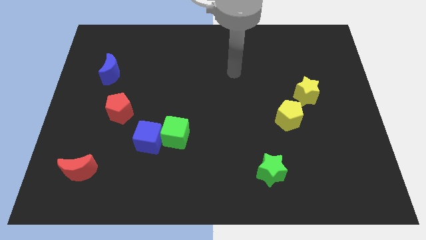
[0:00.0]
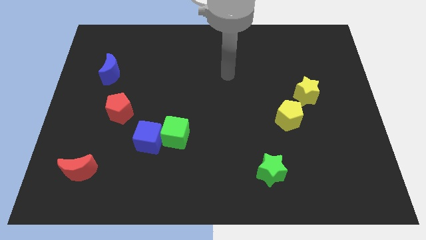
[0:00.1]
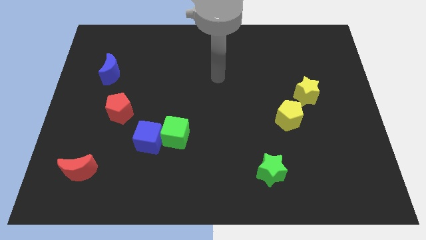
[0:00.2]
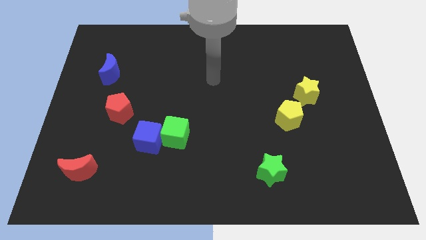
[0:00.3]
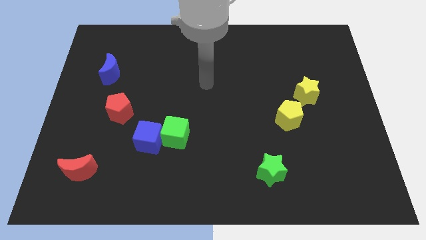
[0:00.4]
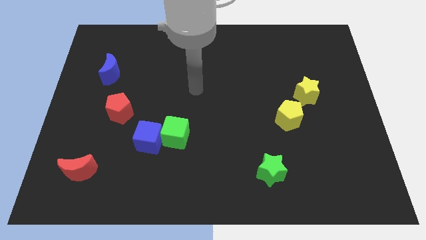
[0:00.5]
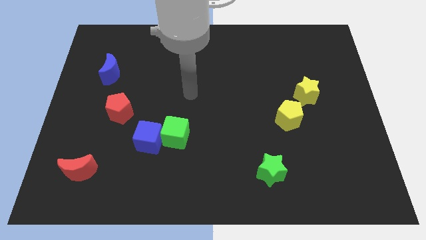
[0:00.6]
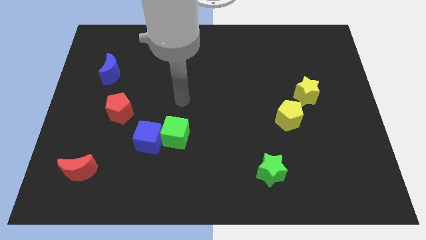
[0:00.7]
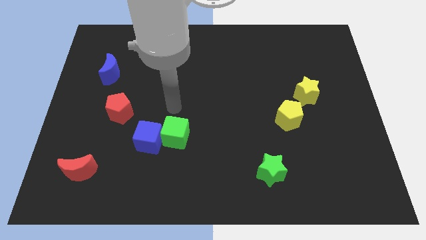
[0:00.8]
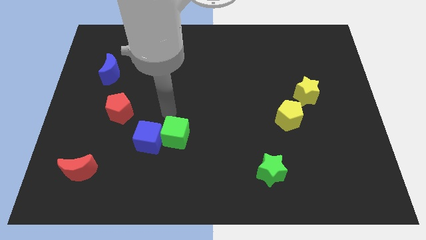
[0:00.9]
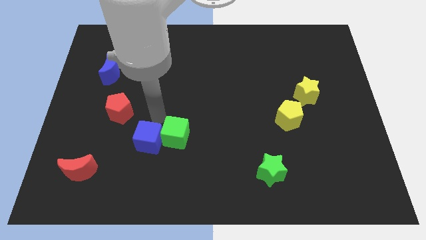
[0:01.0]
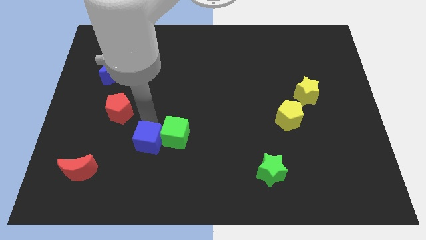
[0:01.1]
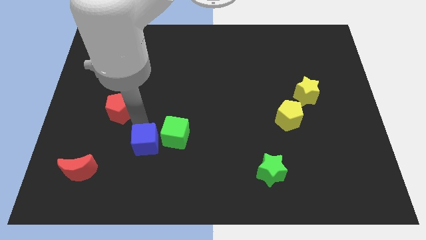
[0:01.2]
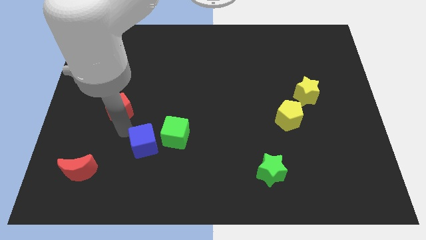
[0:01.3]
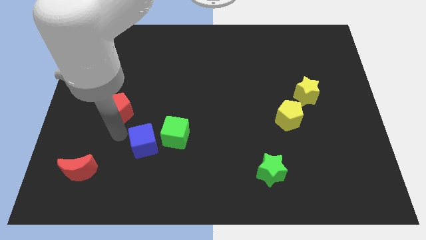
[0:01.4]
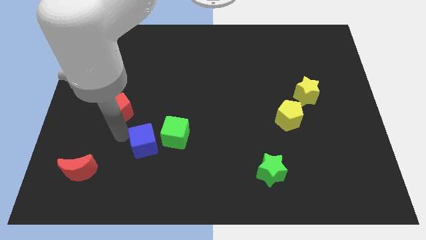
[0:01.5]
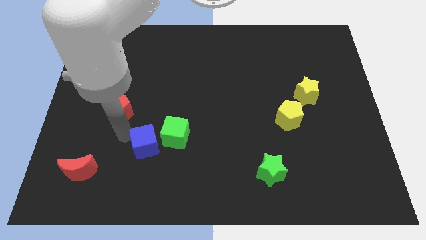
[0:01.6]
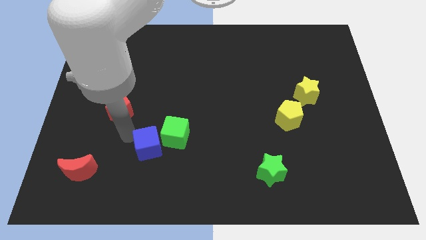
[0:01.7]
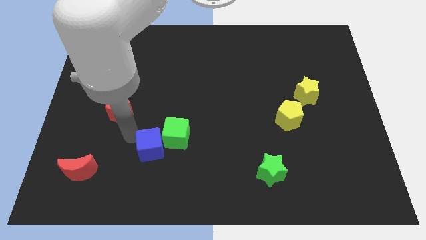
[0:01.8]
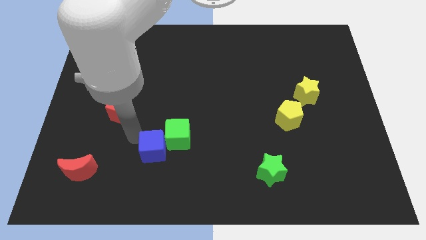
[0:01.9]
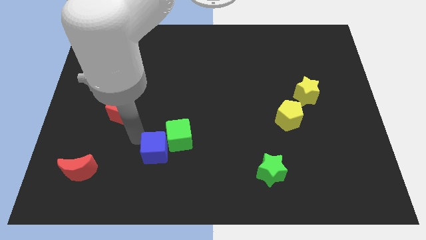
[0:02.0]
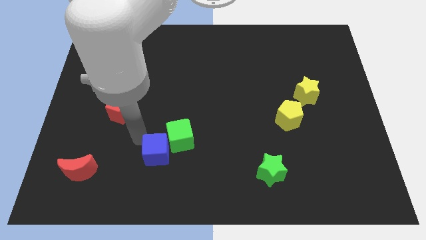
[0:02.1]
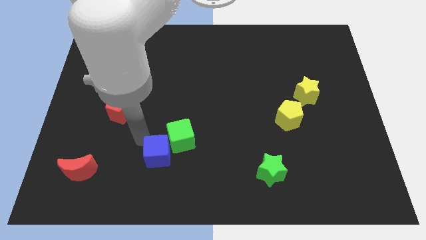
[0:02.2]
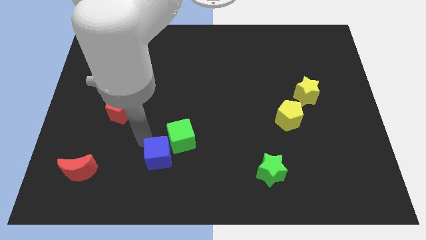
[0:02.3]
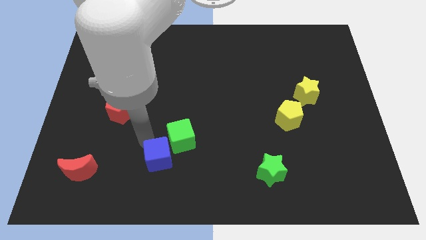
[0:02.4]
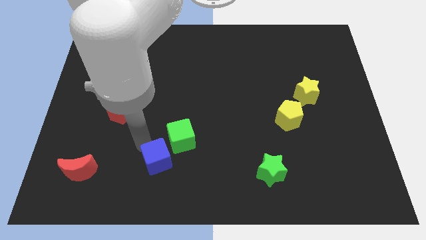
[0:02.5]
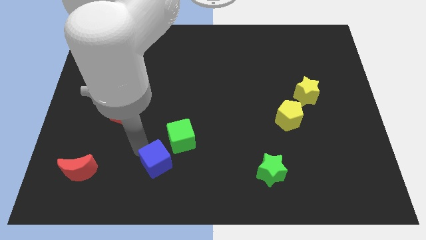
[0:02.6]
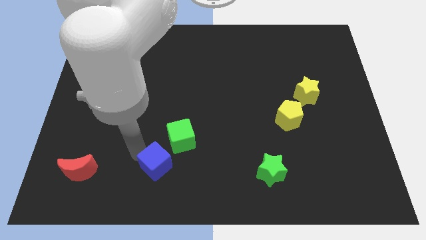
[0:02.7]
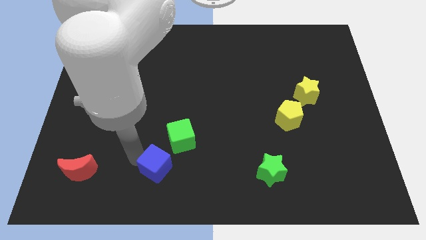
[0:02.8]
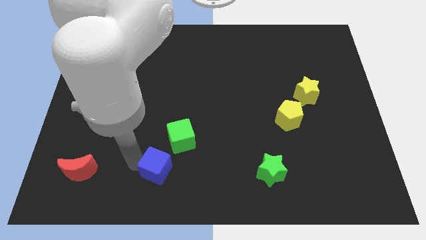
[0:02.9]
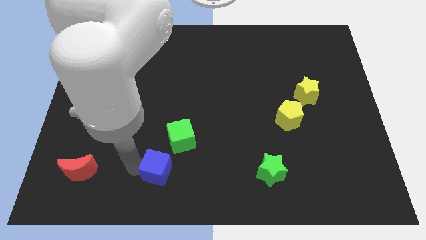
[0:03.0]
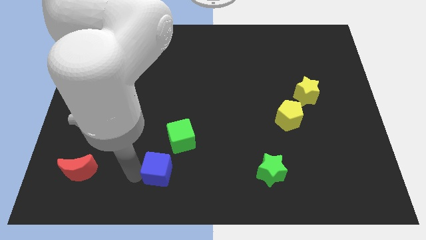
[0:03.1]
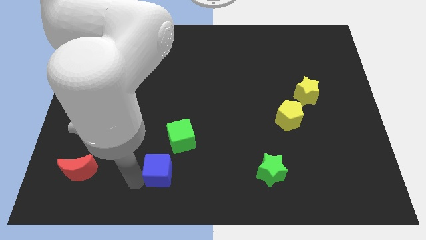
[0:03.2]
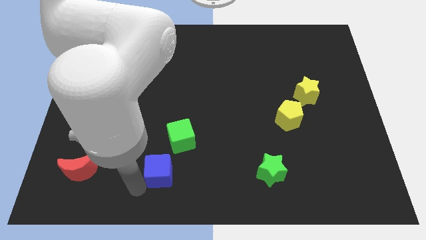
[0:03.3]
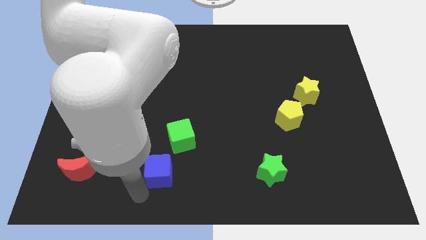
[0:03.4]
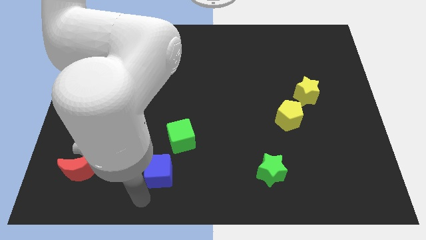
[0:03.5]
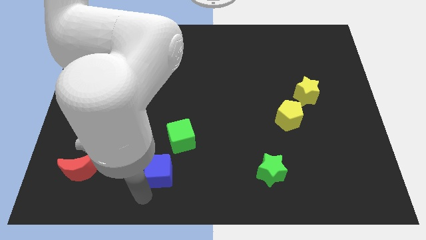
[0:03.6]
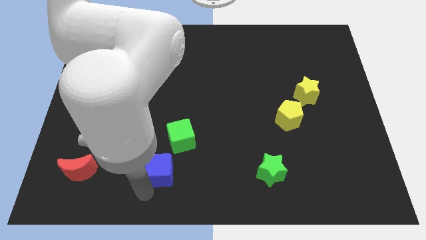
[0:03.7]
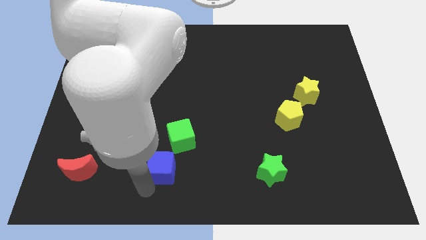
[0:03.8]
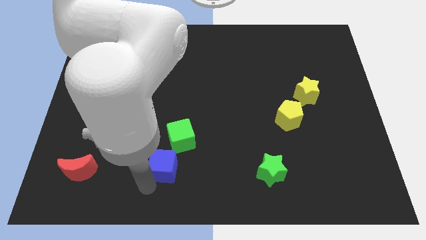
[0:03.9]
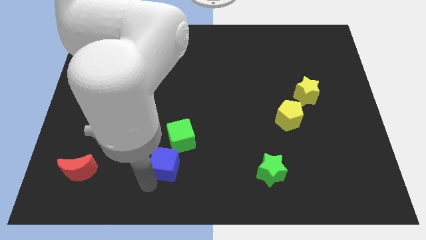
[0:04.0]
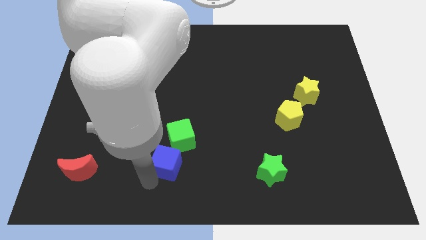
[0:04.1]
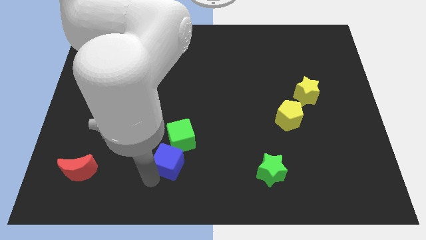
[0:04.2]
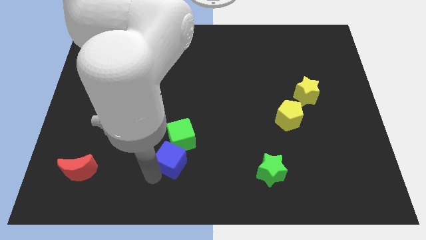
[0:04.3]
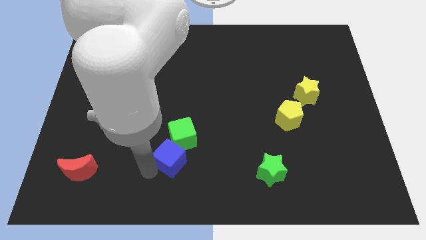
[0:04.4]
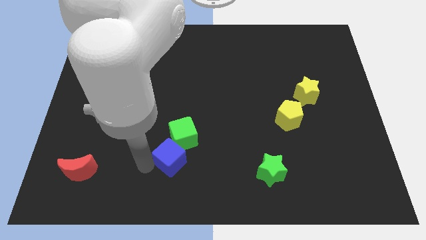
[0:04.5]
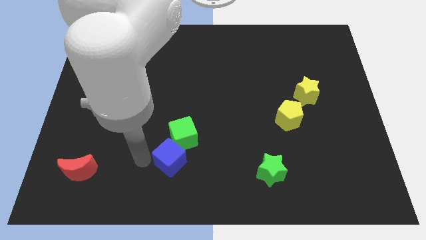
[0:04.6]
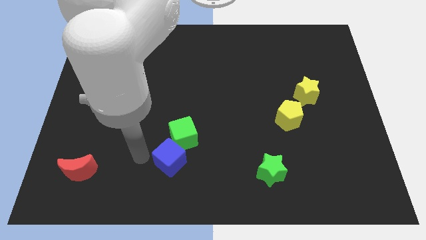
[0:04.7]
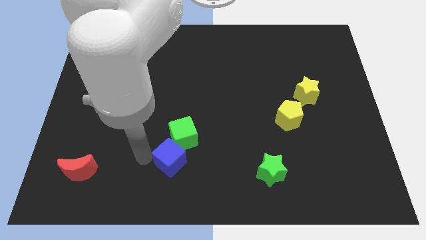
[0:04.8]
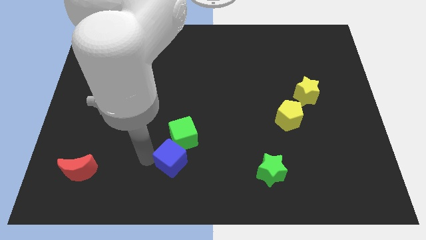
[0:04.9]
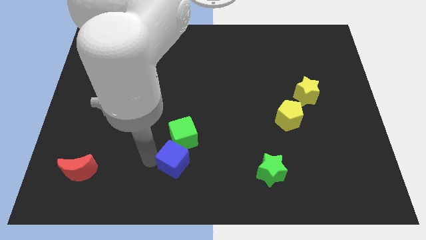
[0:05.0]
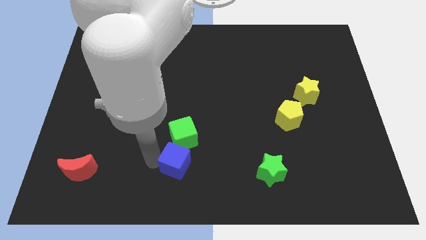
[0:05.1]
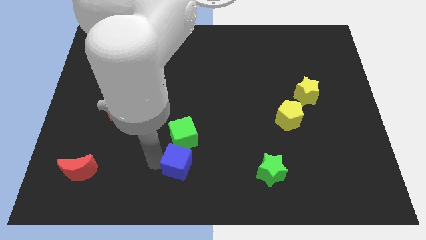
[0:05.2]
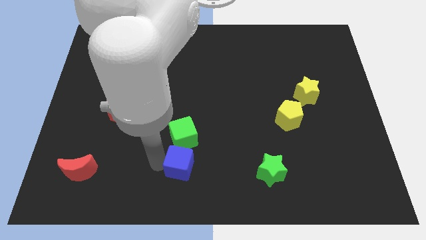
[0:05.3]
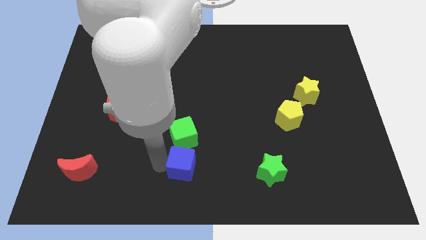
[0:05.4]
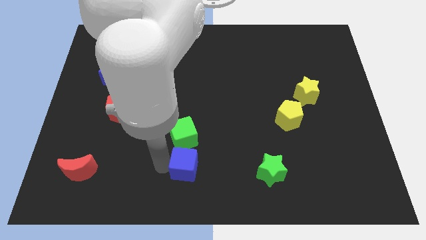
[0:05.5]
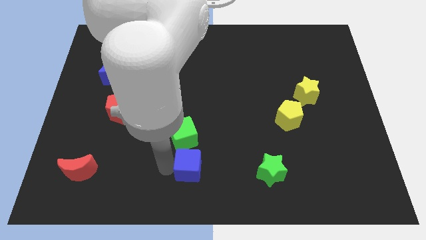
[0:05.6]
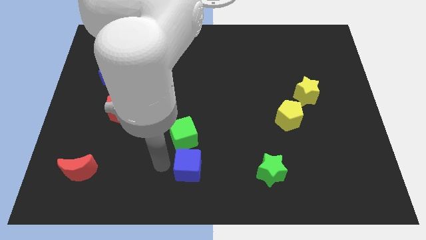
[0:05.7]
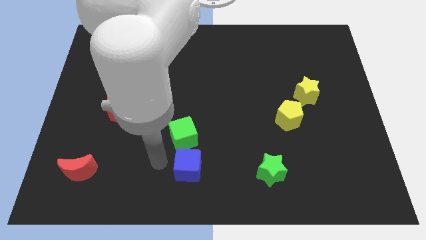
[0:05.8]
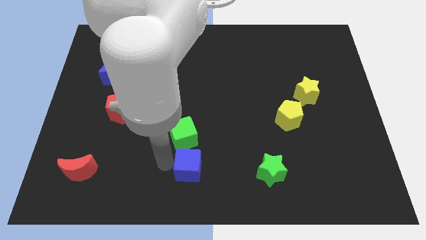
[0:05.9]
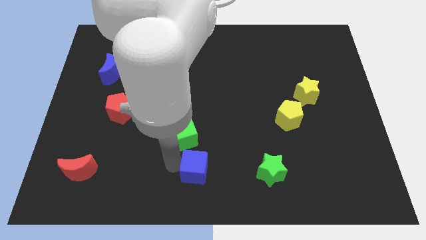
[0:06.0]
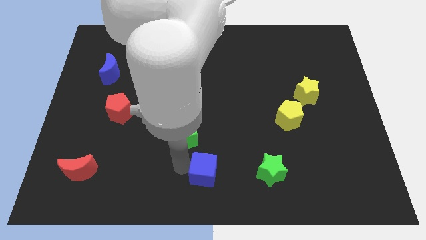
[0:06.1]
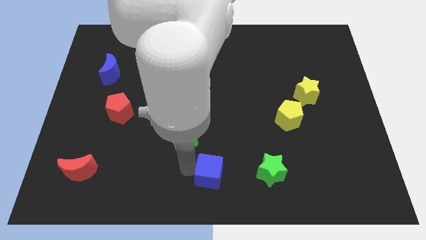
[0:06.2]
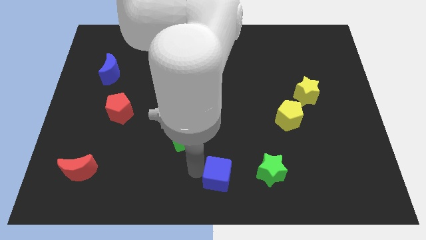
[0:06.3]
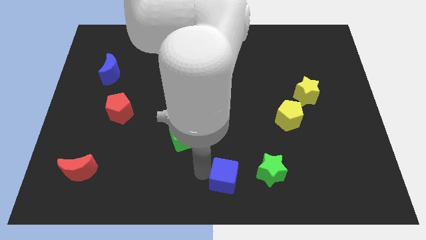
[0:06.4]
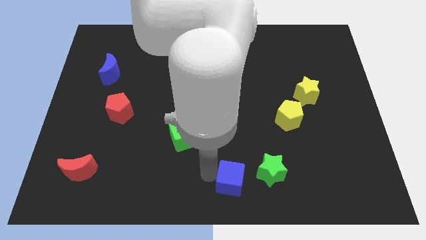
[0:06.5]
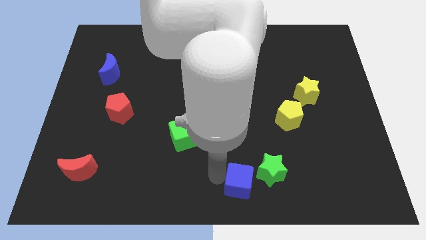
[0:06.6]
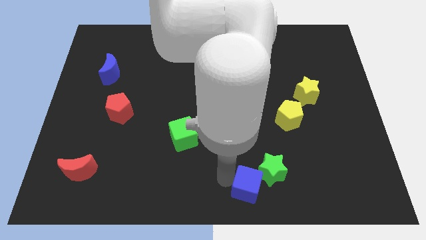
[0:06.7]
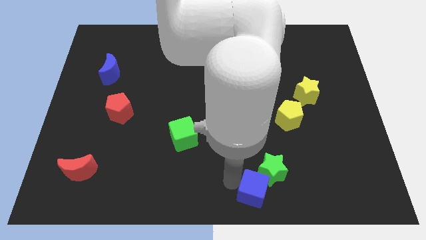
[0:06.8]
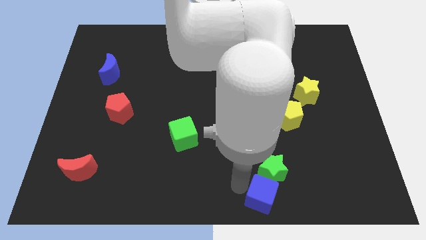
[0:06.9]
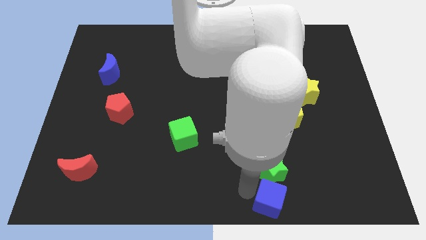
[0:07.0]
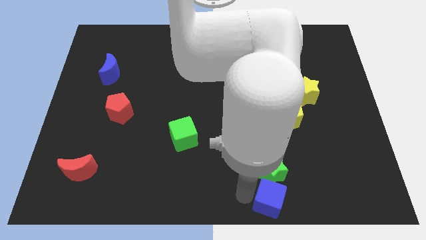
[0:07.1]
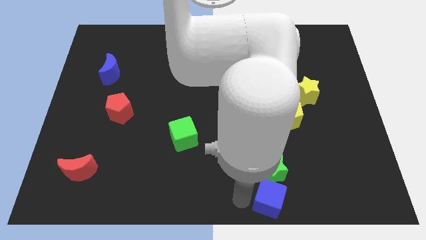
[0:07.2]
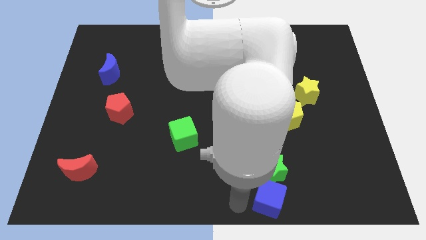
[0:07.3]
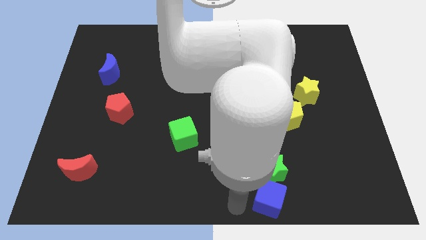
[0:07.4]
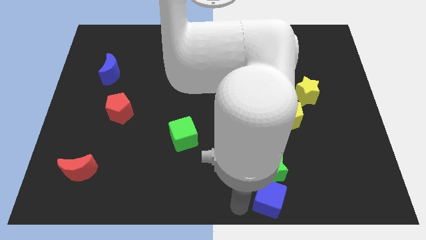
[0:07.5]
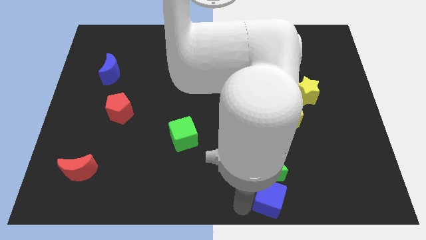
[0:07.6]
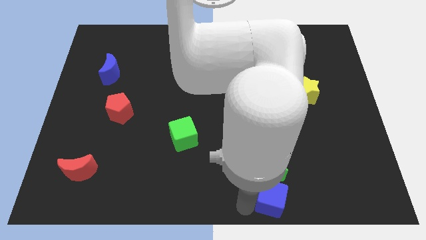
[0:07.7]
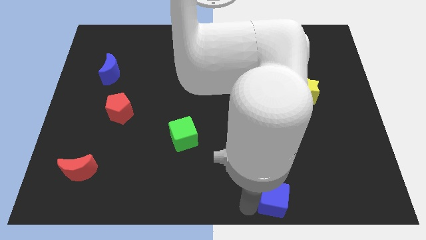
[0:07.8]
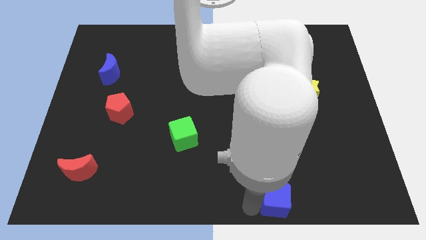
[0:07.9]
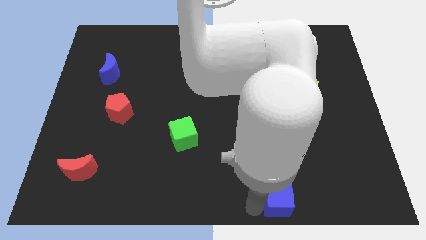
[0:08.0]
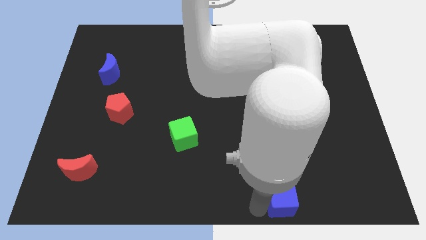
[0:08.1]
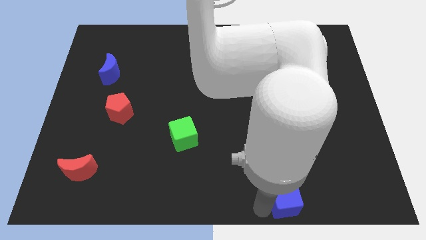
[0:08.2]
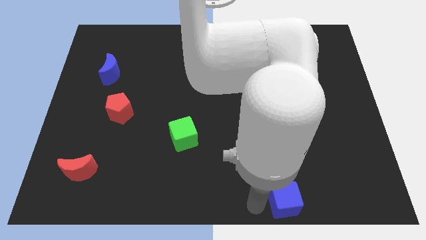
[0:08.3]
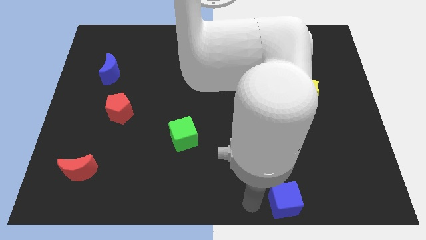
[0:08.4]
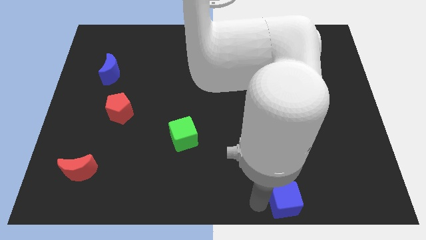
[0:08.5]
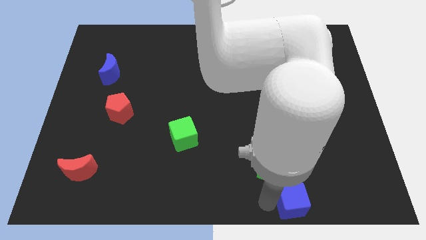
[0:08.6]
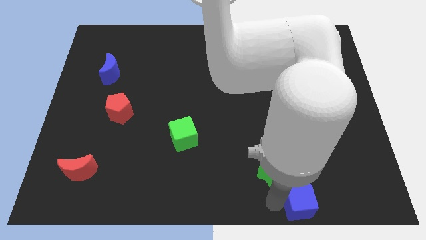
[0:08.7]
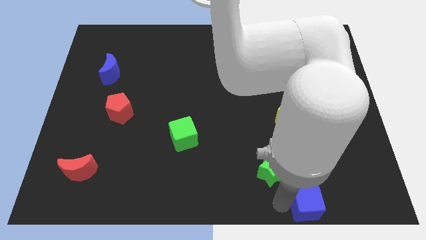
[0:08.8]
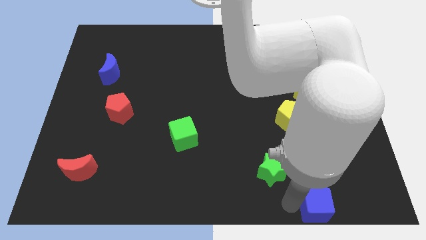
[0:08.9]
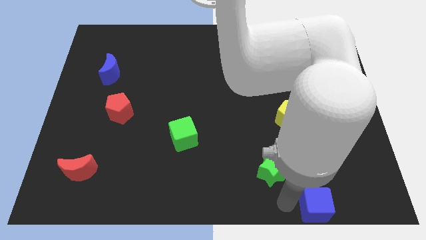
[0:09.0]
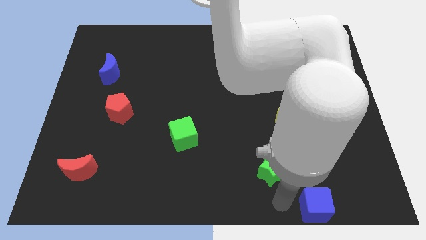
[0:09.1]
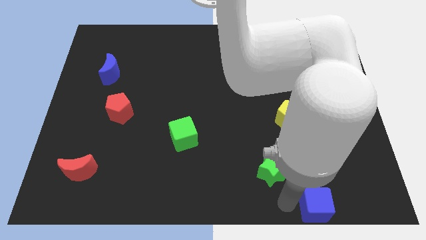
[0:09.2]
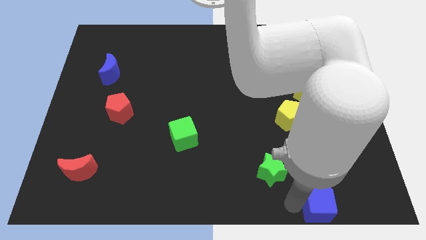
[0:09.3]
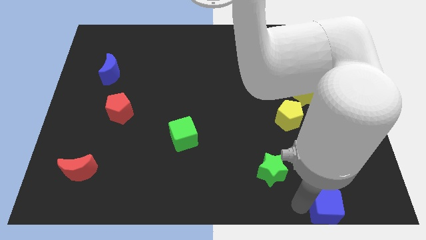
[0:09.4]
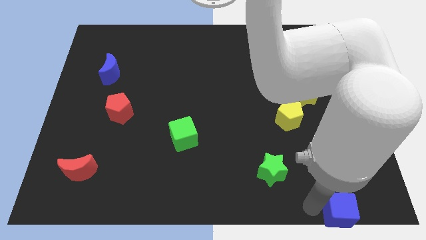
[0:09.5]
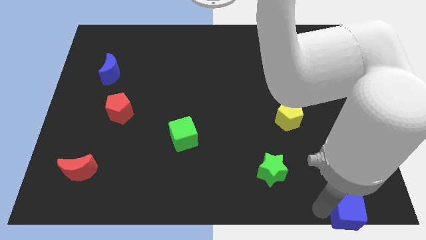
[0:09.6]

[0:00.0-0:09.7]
put the blue cube to the bottom right
